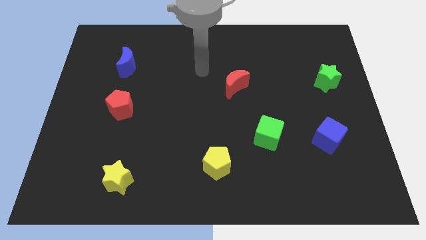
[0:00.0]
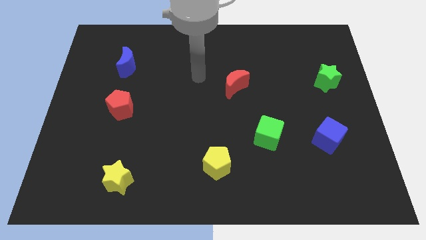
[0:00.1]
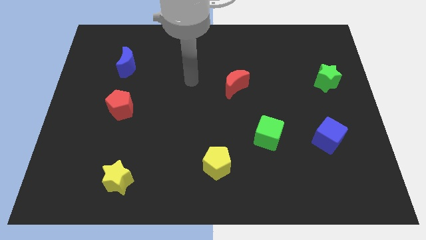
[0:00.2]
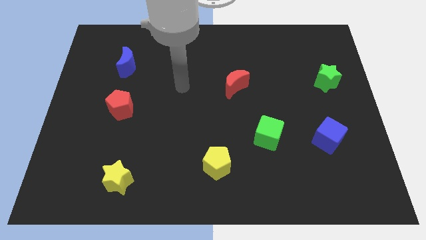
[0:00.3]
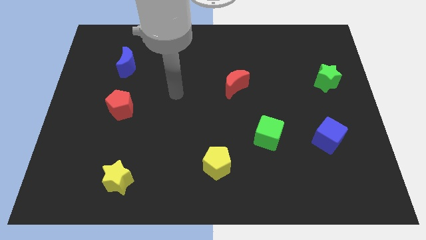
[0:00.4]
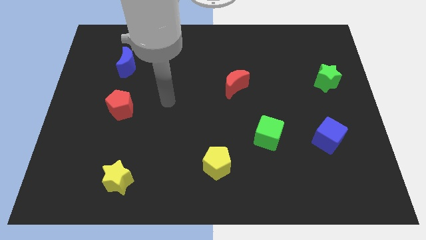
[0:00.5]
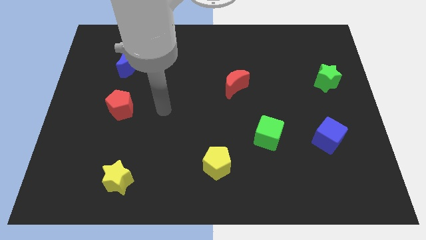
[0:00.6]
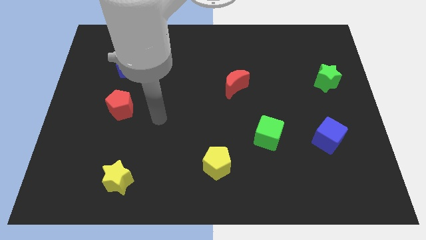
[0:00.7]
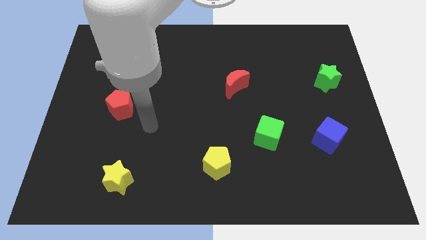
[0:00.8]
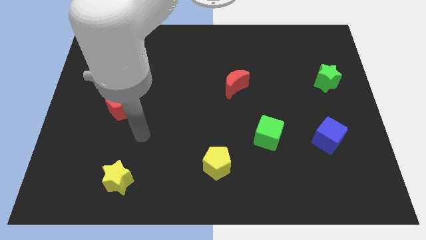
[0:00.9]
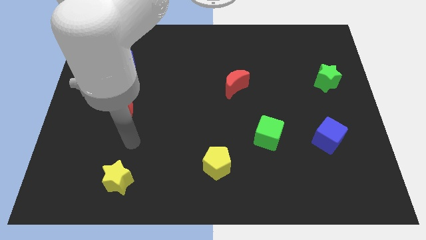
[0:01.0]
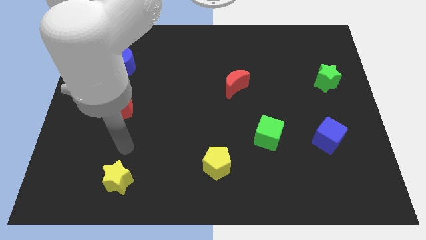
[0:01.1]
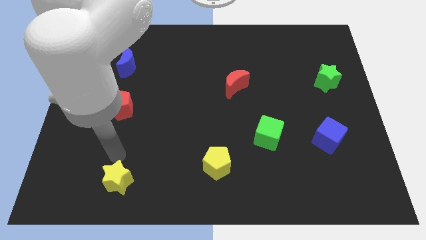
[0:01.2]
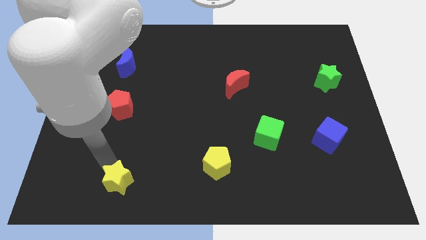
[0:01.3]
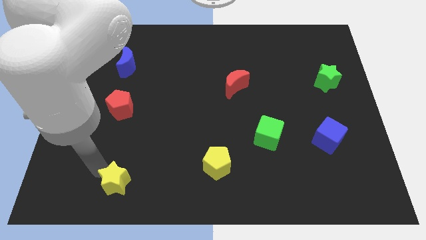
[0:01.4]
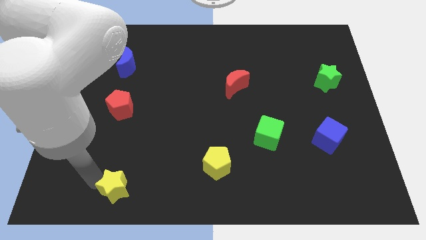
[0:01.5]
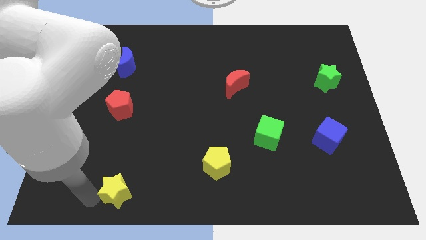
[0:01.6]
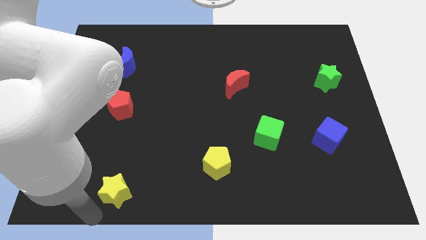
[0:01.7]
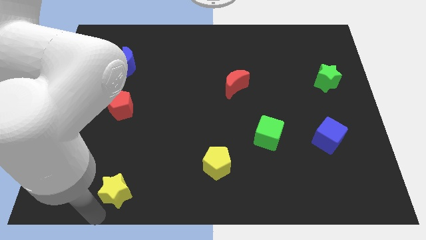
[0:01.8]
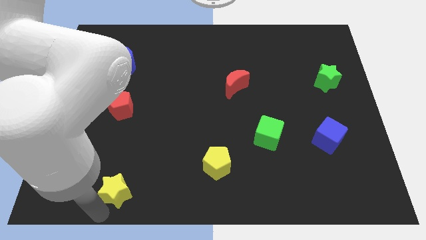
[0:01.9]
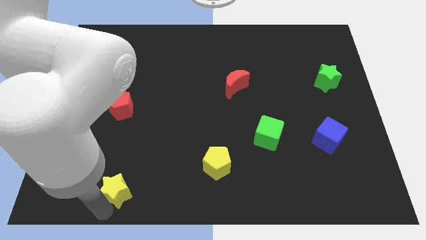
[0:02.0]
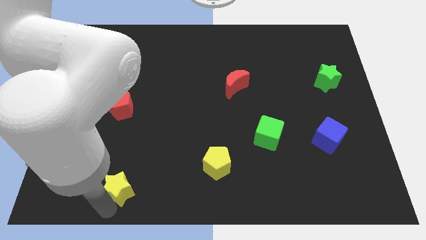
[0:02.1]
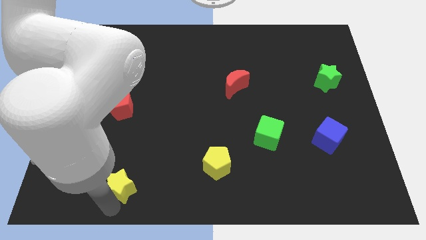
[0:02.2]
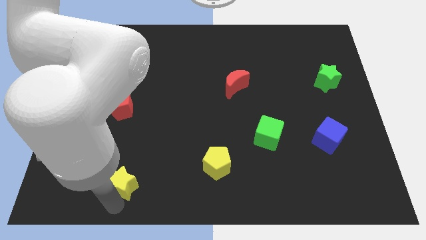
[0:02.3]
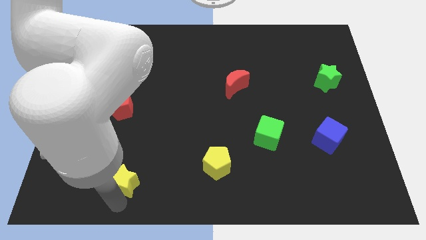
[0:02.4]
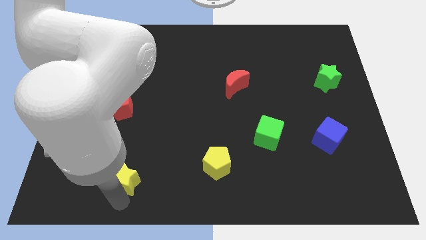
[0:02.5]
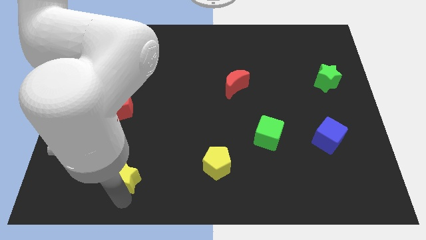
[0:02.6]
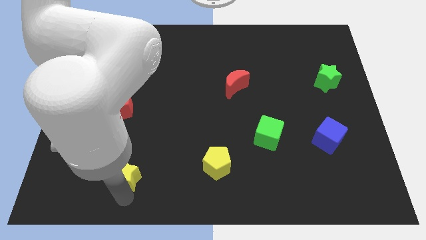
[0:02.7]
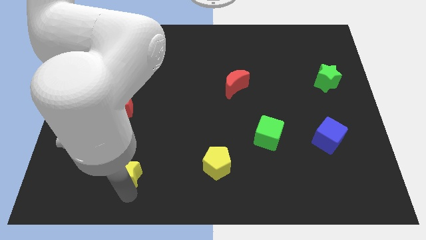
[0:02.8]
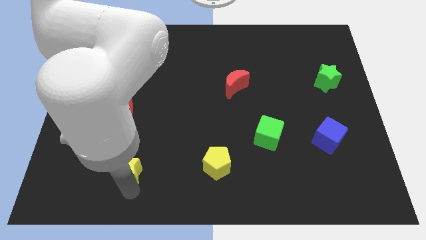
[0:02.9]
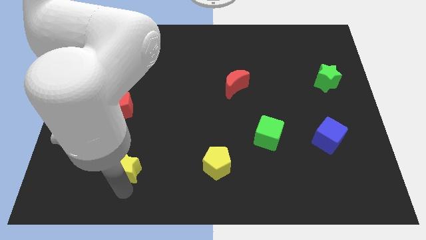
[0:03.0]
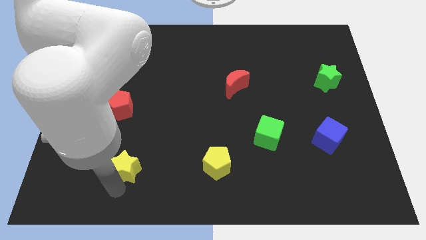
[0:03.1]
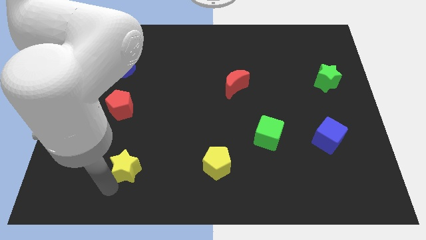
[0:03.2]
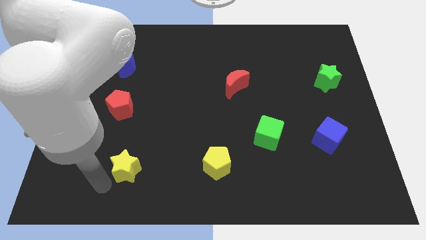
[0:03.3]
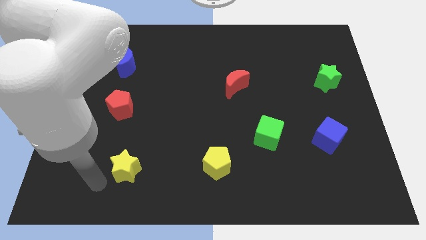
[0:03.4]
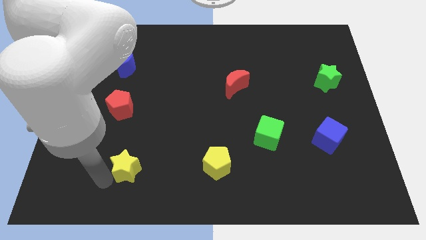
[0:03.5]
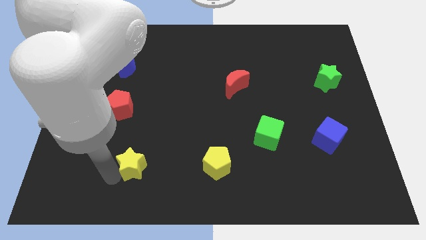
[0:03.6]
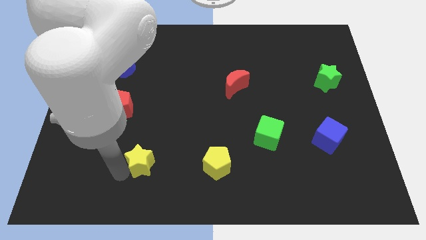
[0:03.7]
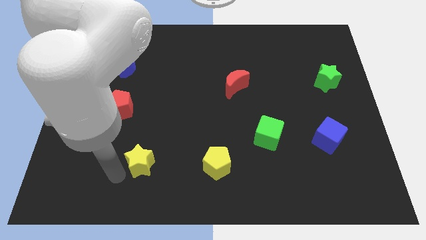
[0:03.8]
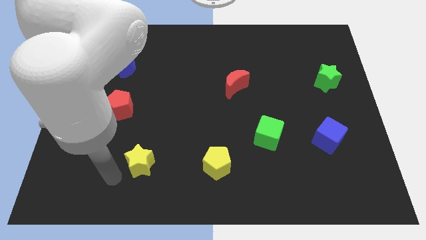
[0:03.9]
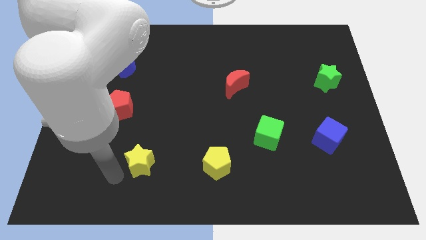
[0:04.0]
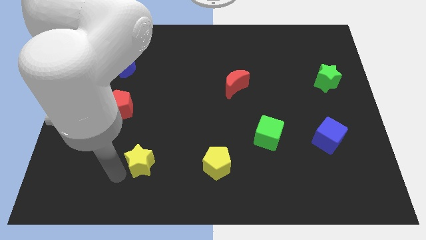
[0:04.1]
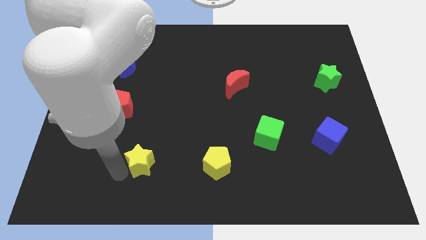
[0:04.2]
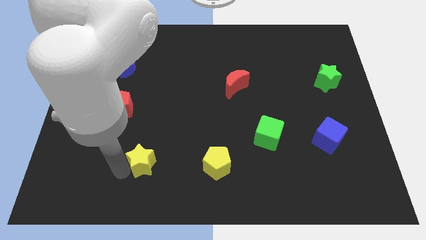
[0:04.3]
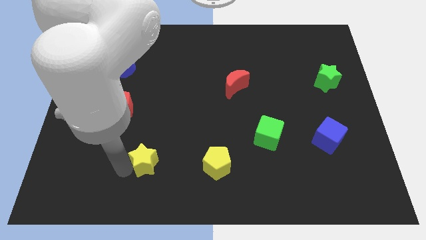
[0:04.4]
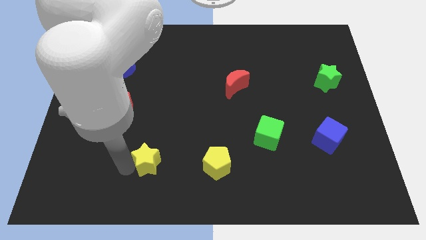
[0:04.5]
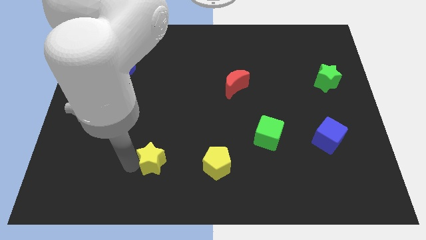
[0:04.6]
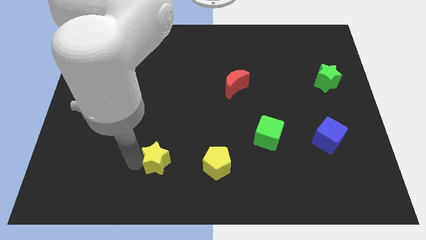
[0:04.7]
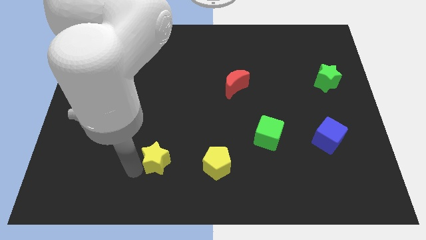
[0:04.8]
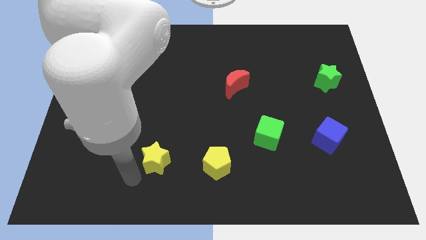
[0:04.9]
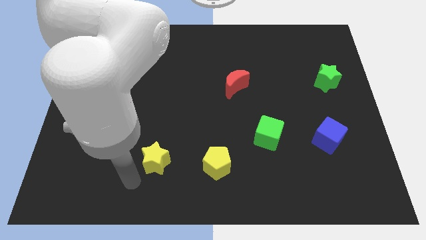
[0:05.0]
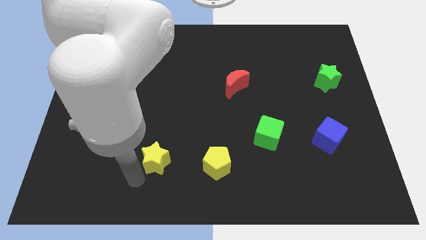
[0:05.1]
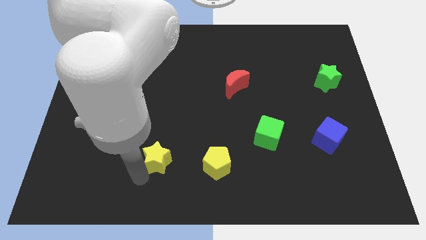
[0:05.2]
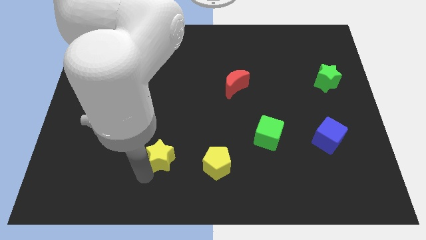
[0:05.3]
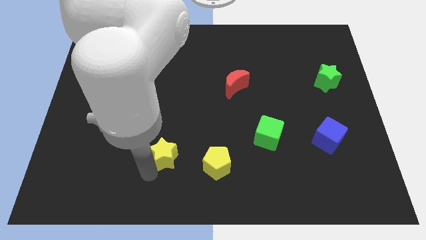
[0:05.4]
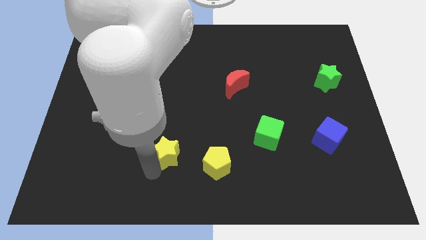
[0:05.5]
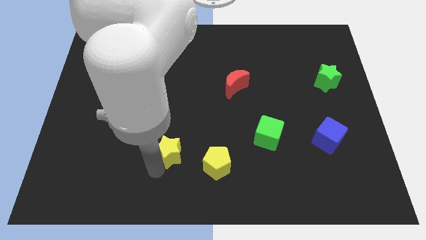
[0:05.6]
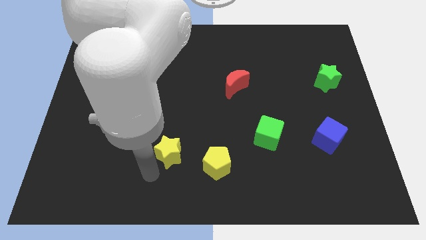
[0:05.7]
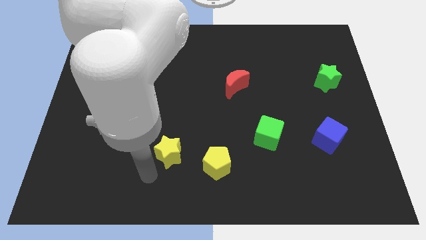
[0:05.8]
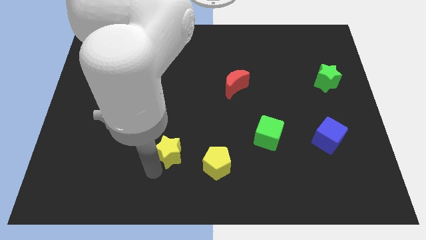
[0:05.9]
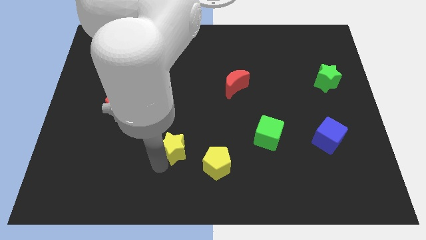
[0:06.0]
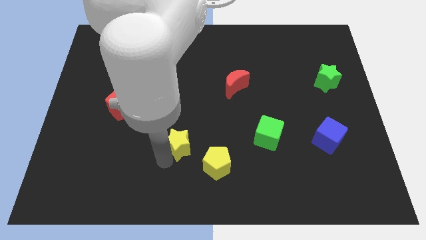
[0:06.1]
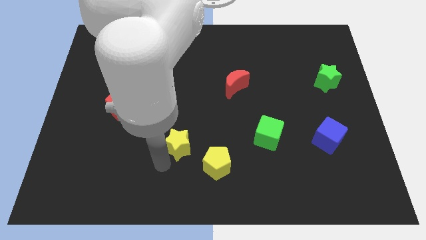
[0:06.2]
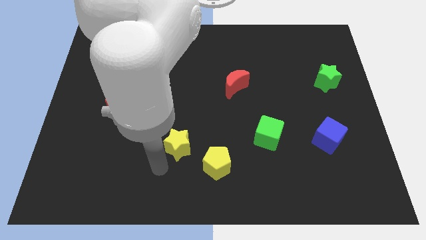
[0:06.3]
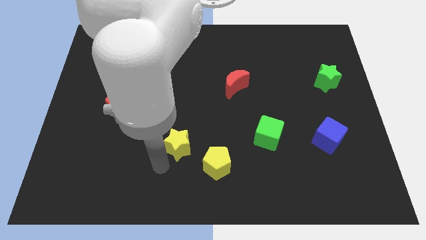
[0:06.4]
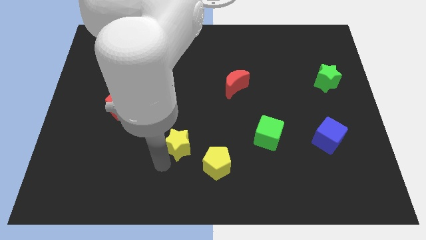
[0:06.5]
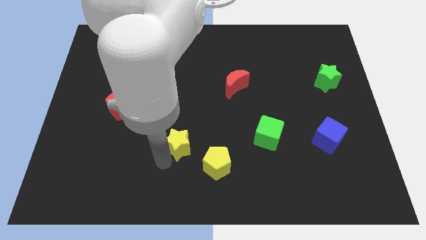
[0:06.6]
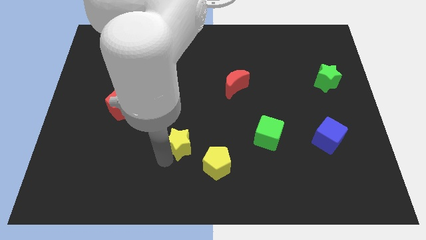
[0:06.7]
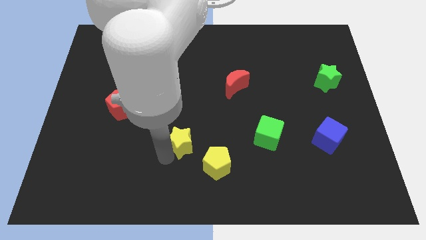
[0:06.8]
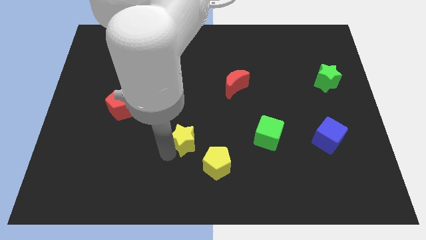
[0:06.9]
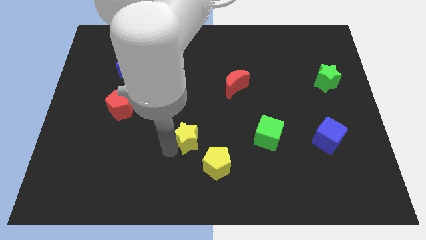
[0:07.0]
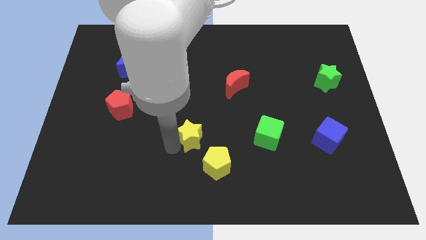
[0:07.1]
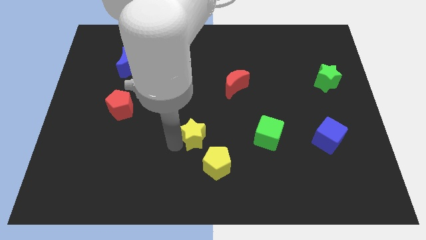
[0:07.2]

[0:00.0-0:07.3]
push the yellow star above the yellow pentagon

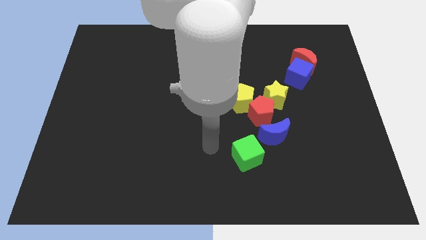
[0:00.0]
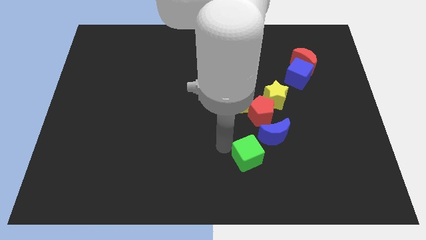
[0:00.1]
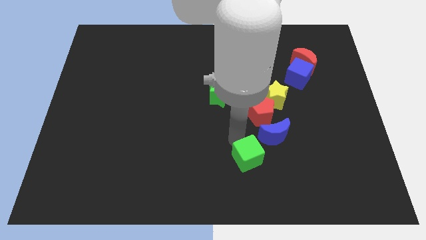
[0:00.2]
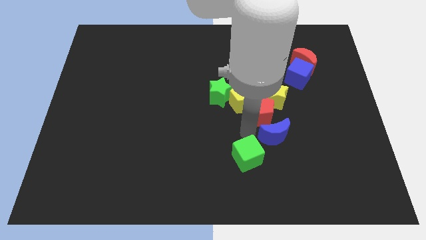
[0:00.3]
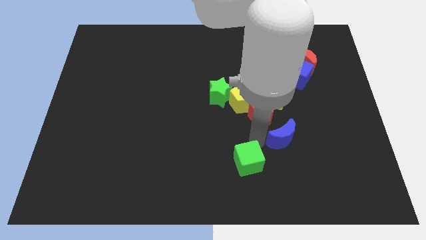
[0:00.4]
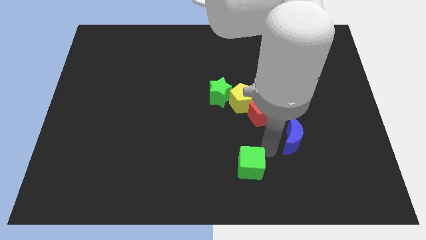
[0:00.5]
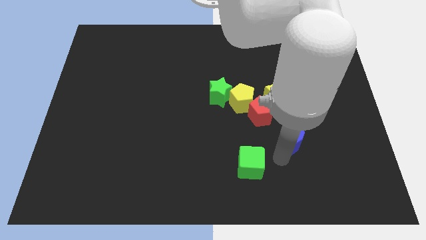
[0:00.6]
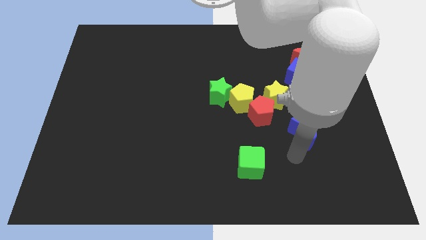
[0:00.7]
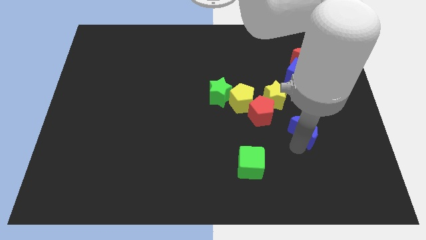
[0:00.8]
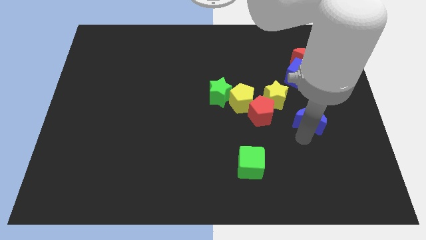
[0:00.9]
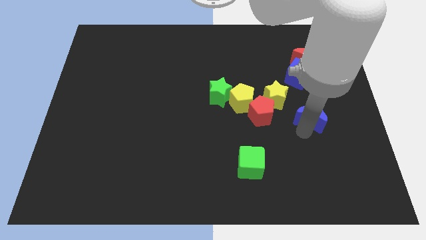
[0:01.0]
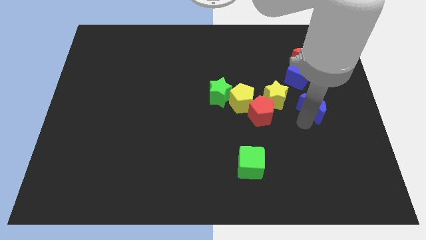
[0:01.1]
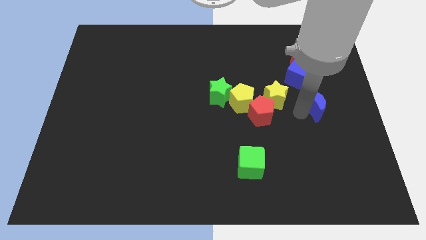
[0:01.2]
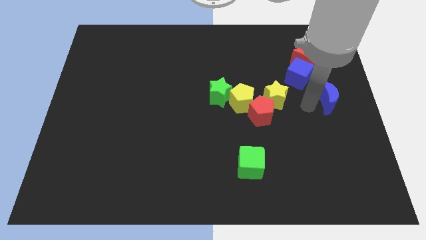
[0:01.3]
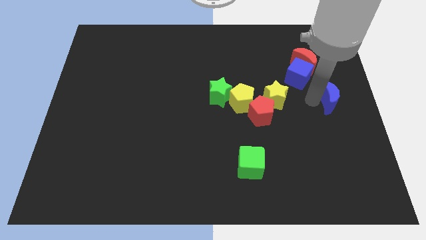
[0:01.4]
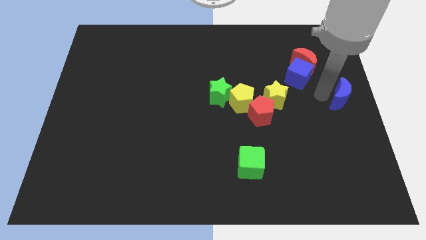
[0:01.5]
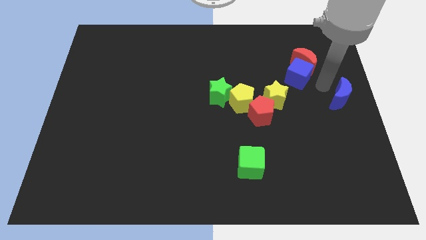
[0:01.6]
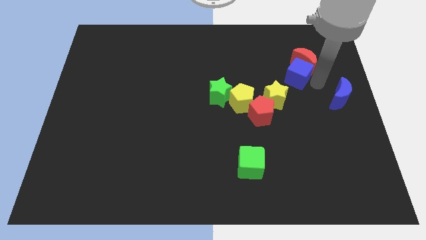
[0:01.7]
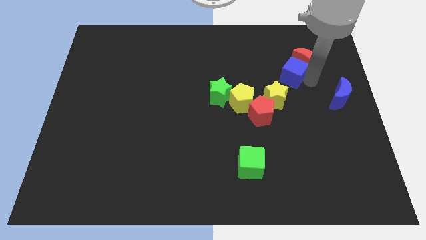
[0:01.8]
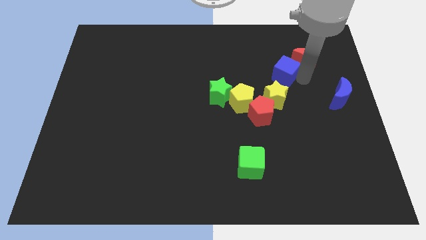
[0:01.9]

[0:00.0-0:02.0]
slide the blue cube to the top side of the yellow star
